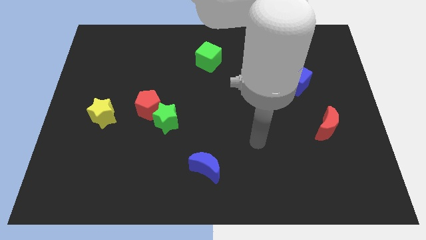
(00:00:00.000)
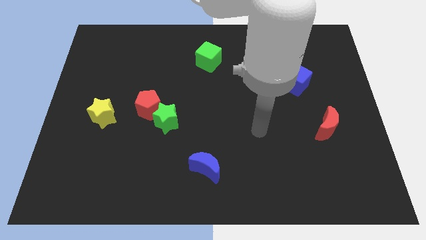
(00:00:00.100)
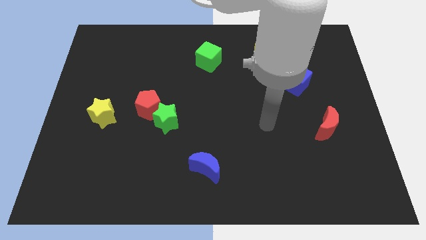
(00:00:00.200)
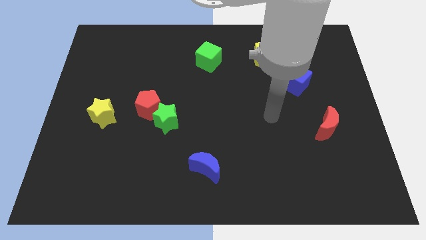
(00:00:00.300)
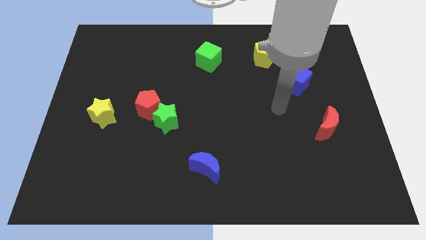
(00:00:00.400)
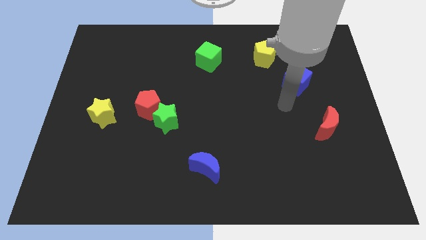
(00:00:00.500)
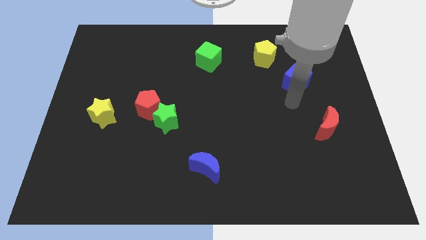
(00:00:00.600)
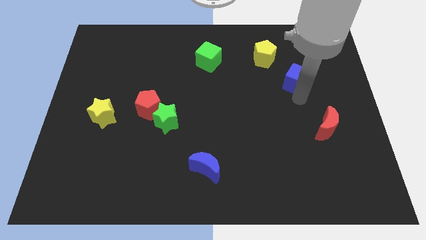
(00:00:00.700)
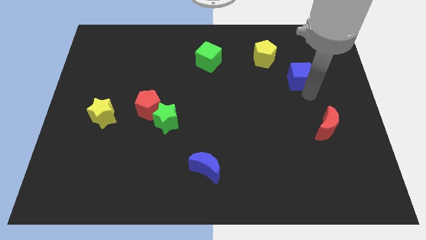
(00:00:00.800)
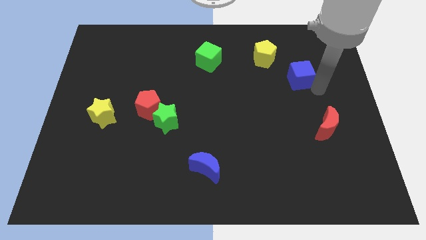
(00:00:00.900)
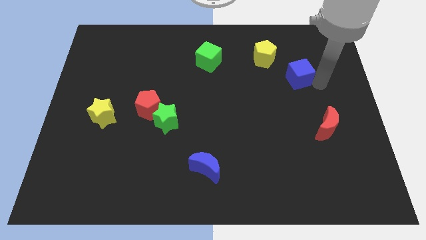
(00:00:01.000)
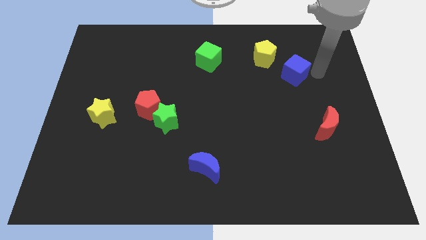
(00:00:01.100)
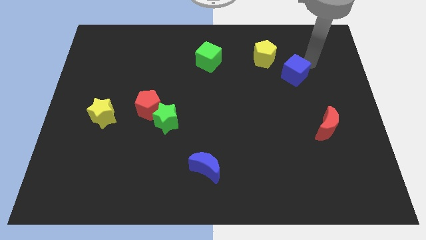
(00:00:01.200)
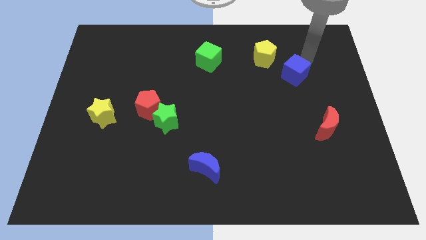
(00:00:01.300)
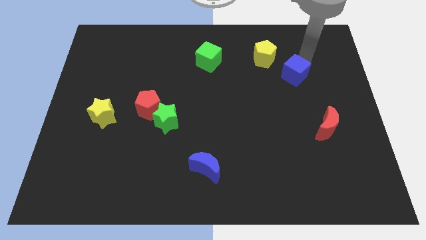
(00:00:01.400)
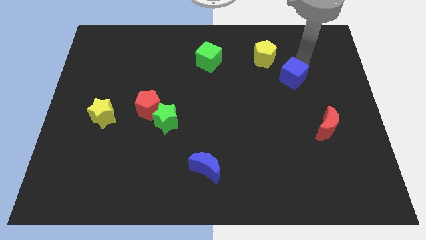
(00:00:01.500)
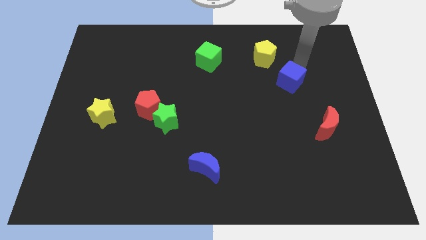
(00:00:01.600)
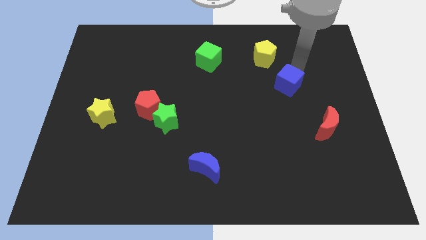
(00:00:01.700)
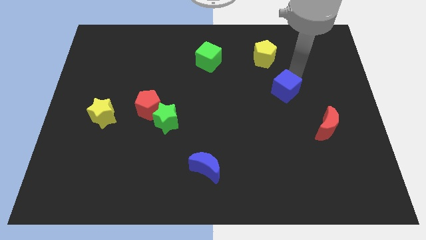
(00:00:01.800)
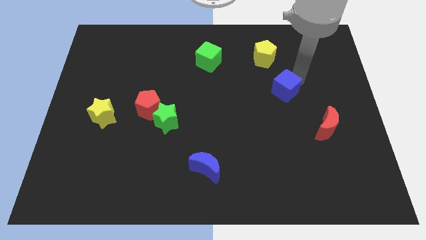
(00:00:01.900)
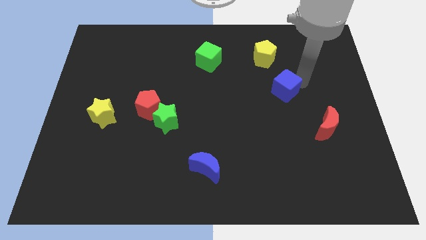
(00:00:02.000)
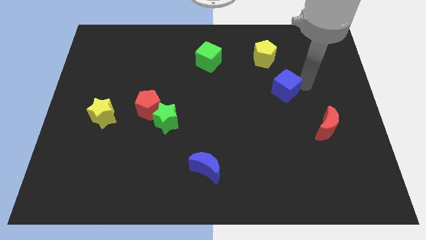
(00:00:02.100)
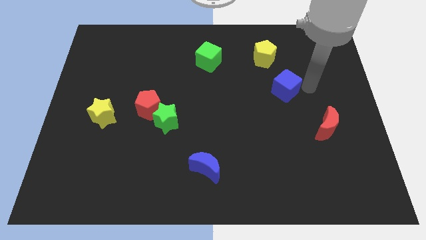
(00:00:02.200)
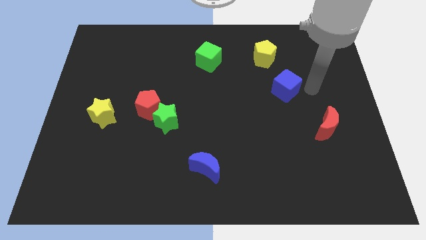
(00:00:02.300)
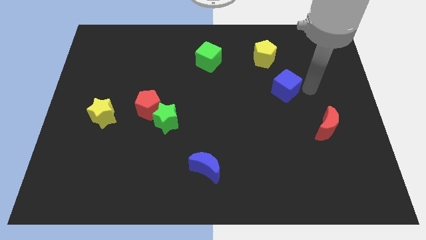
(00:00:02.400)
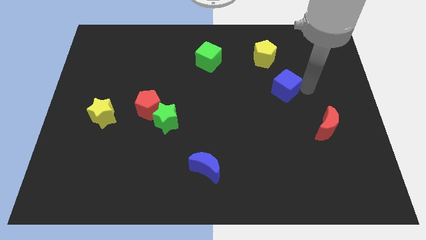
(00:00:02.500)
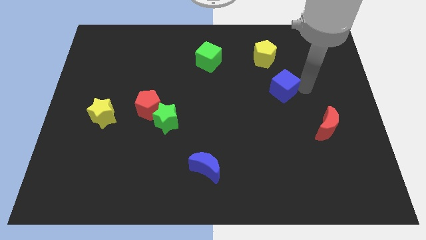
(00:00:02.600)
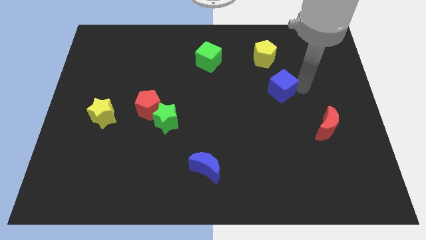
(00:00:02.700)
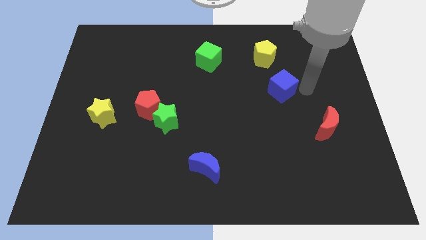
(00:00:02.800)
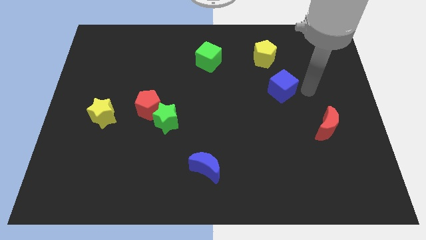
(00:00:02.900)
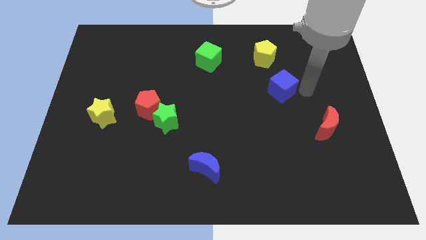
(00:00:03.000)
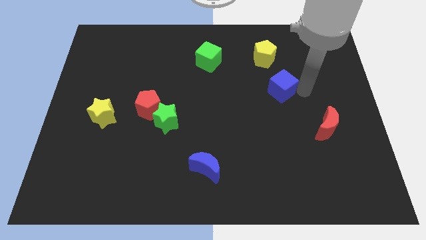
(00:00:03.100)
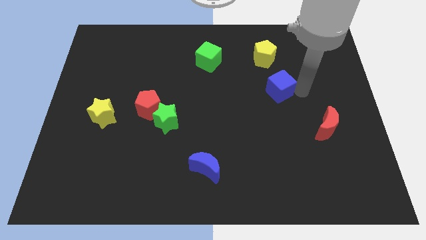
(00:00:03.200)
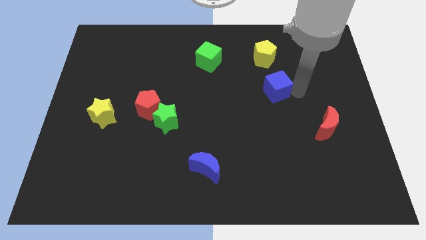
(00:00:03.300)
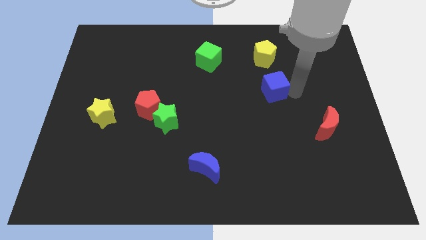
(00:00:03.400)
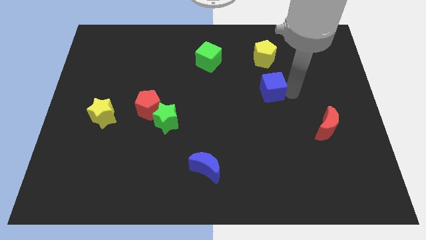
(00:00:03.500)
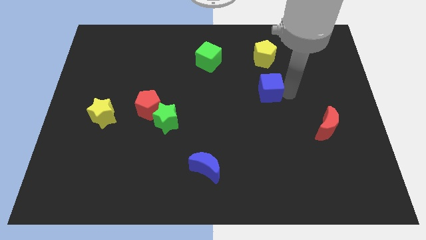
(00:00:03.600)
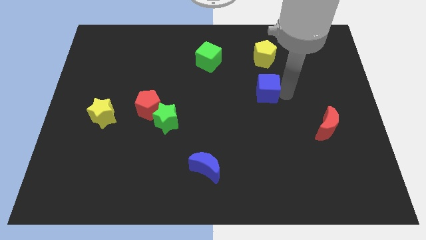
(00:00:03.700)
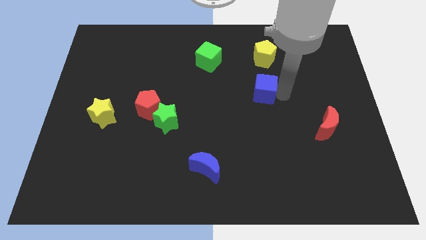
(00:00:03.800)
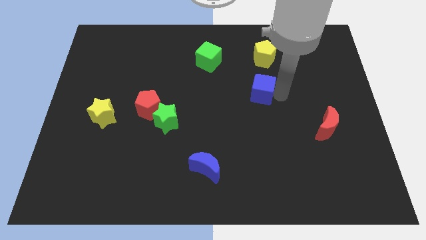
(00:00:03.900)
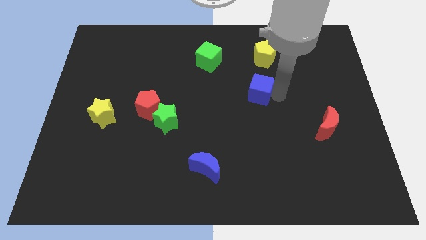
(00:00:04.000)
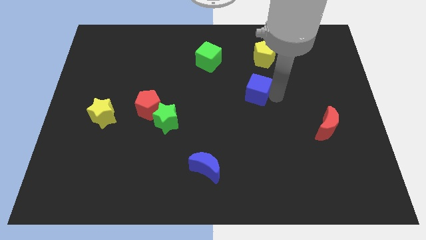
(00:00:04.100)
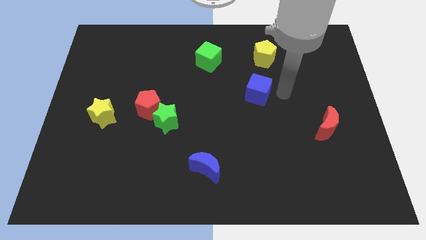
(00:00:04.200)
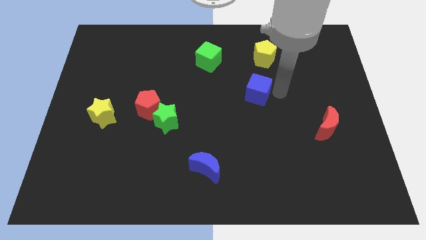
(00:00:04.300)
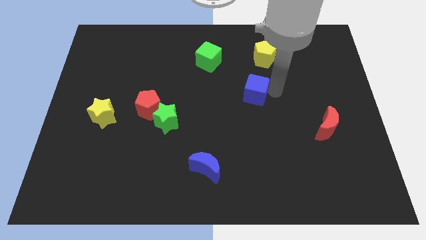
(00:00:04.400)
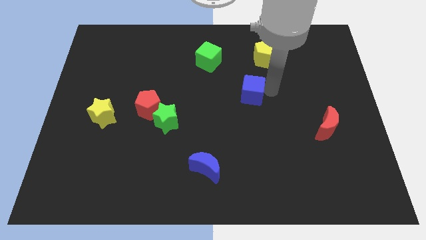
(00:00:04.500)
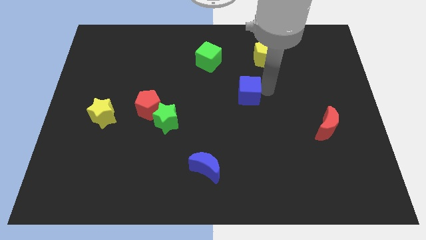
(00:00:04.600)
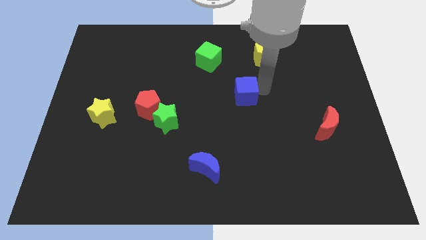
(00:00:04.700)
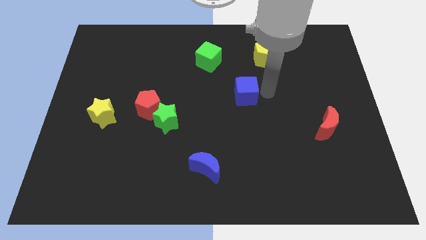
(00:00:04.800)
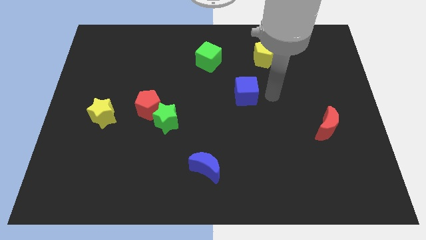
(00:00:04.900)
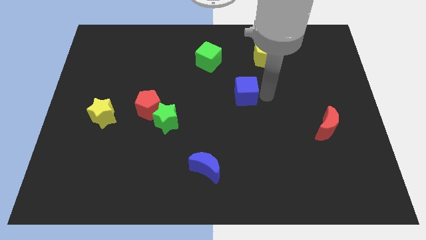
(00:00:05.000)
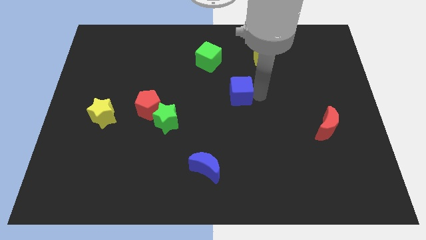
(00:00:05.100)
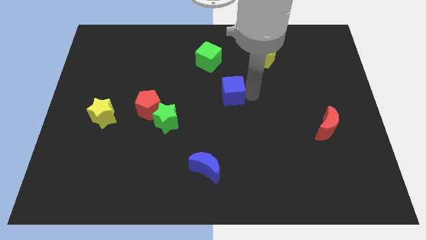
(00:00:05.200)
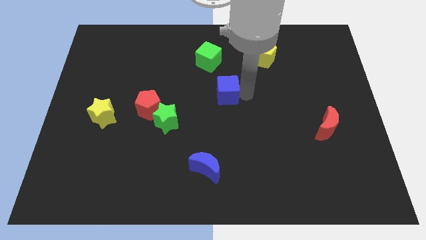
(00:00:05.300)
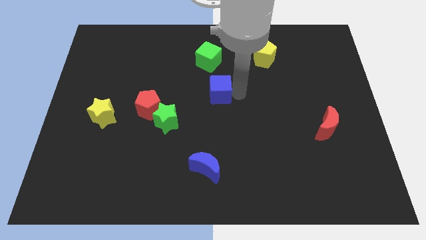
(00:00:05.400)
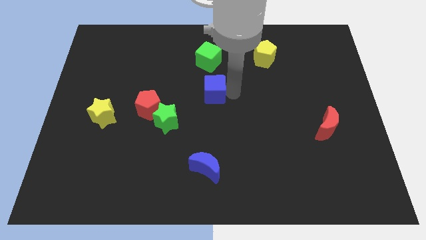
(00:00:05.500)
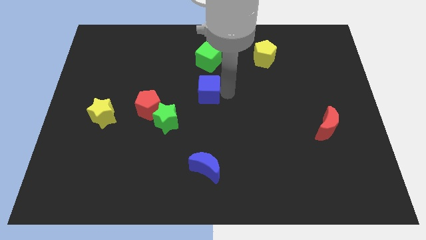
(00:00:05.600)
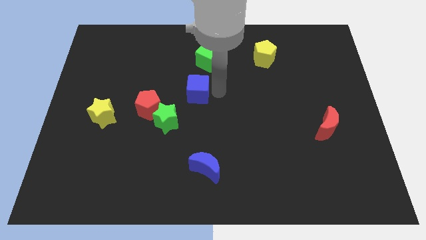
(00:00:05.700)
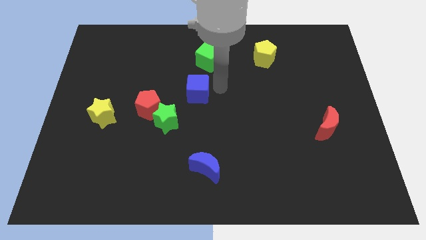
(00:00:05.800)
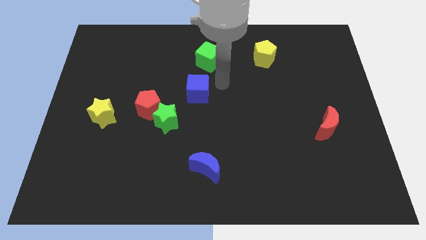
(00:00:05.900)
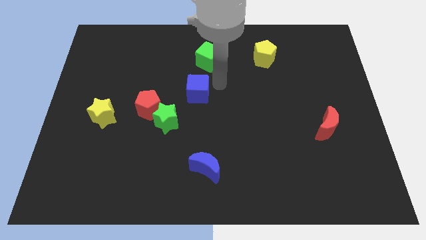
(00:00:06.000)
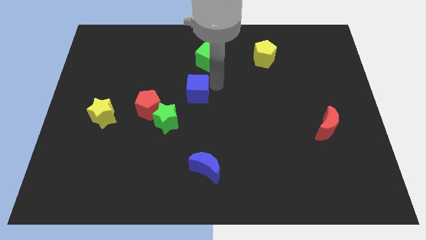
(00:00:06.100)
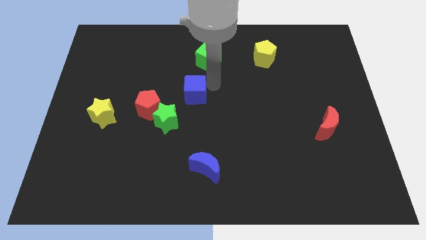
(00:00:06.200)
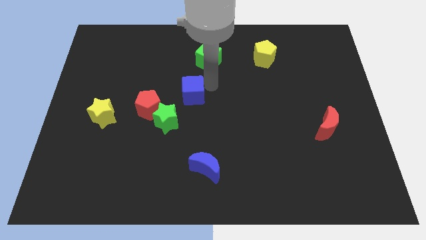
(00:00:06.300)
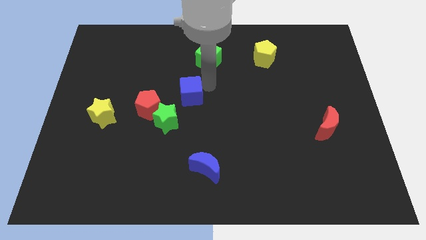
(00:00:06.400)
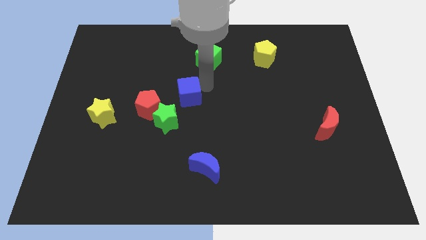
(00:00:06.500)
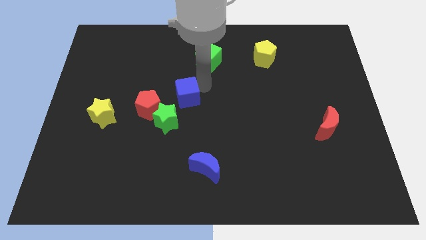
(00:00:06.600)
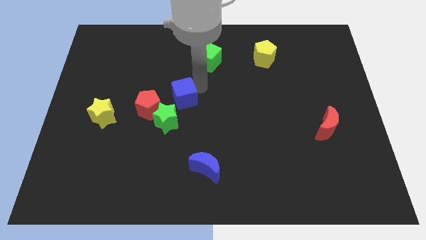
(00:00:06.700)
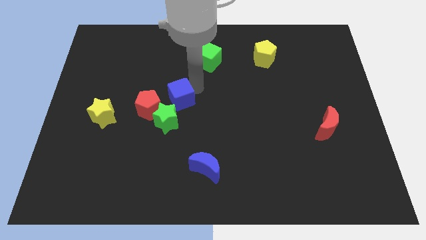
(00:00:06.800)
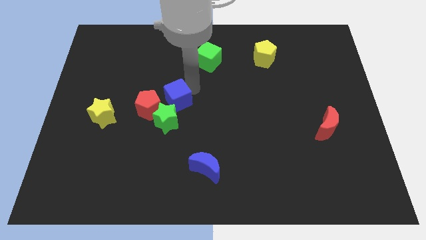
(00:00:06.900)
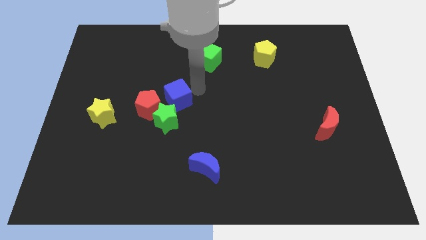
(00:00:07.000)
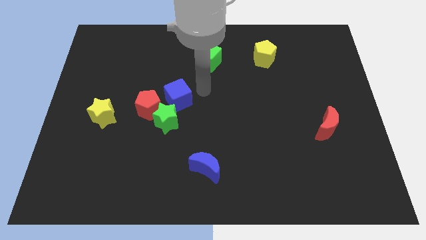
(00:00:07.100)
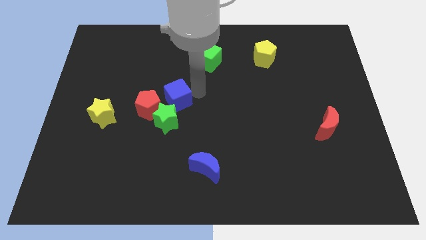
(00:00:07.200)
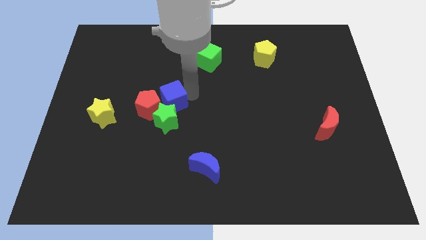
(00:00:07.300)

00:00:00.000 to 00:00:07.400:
push the blue cube to the red pentagon
